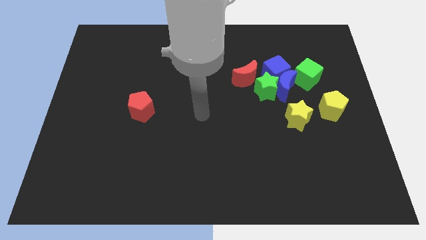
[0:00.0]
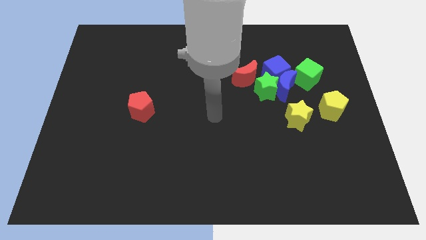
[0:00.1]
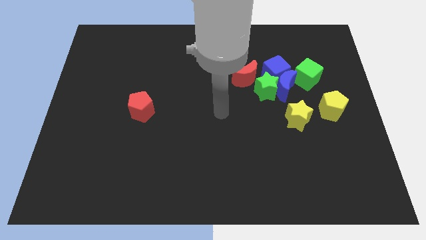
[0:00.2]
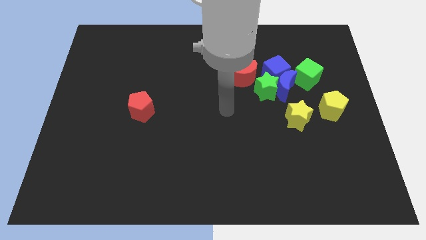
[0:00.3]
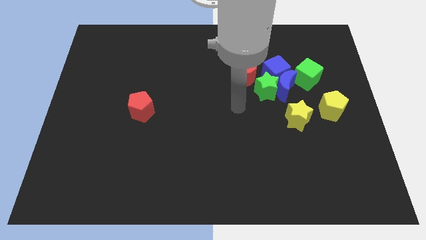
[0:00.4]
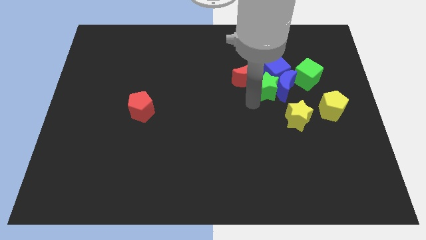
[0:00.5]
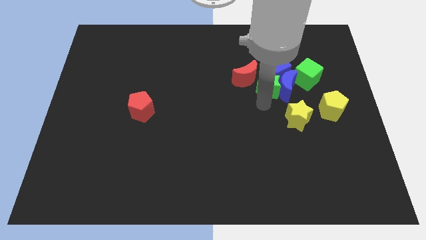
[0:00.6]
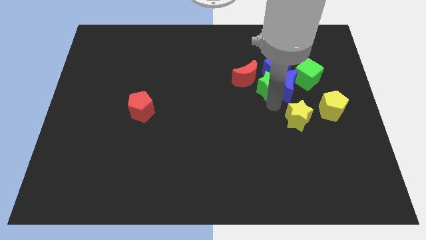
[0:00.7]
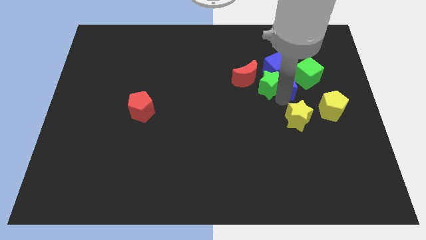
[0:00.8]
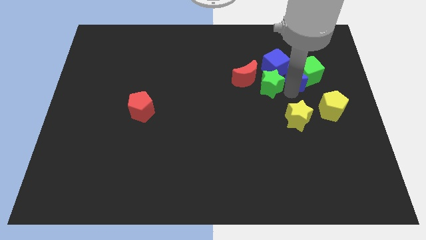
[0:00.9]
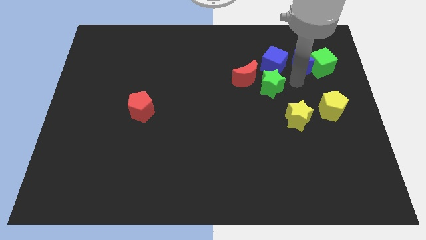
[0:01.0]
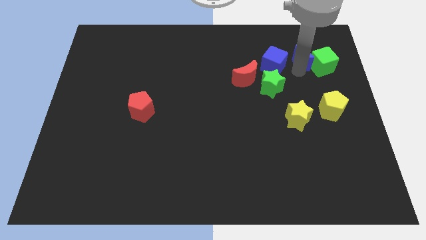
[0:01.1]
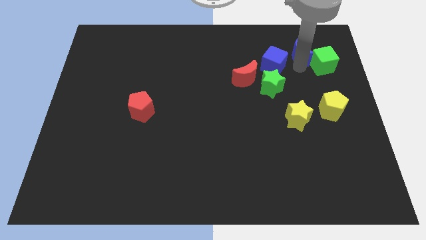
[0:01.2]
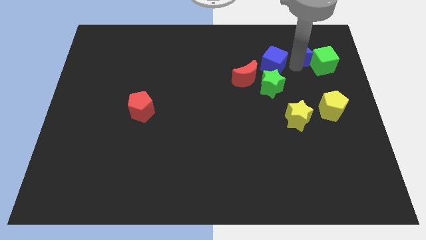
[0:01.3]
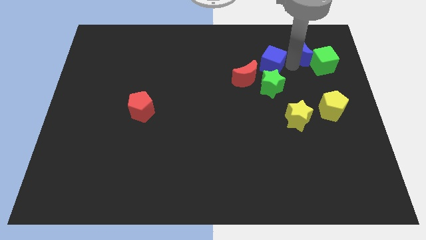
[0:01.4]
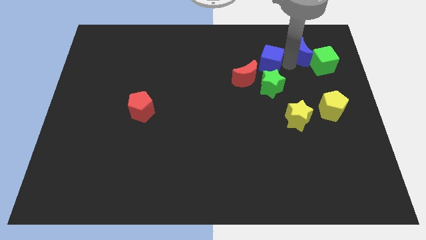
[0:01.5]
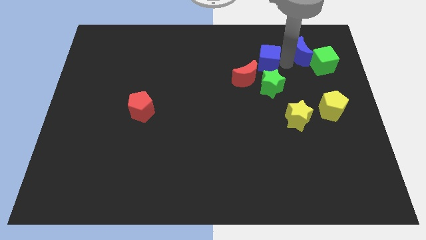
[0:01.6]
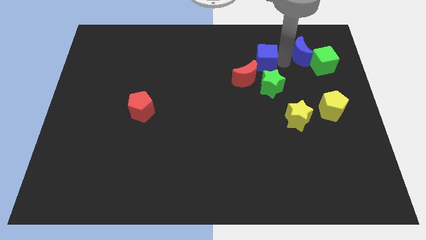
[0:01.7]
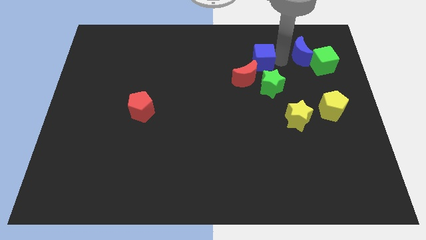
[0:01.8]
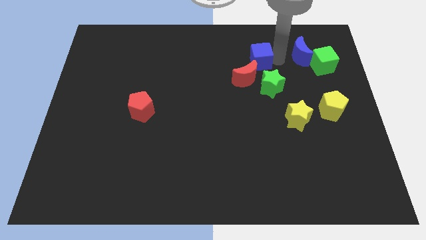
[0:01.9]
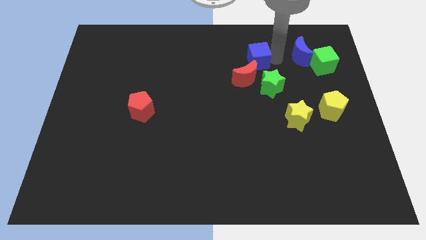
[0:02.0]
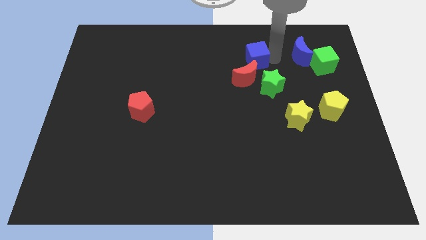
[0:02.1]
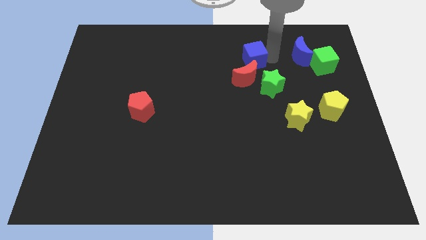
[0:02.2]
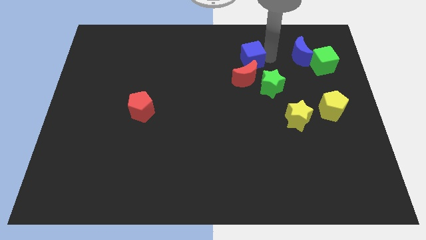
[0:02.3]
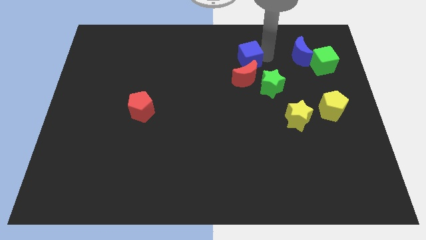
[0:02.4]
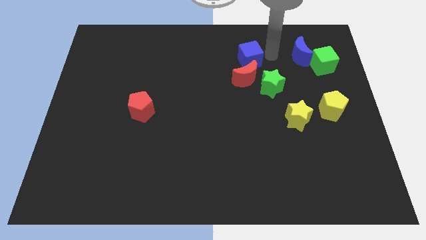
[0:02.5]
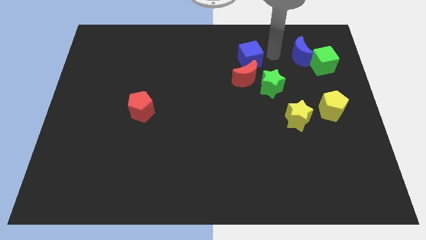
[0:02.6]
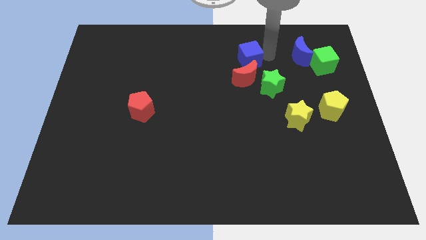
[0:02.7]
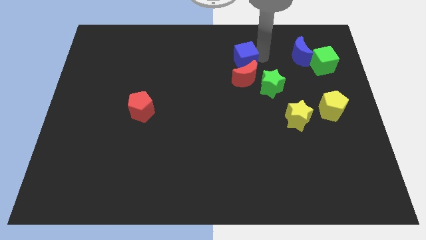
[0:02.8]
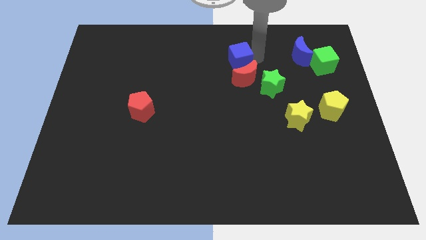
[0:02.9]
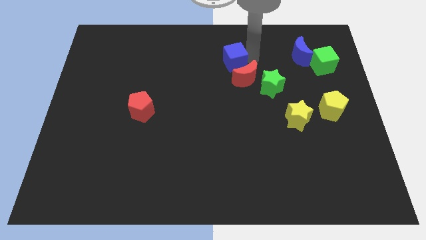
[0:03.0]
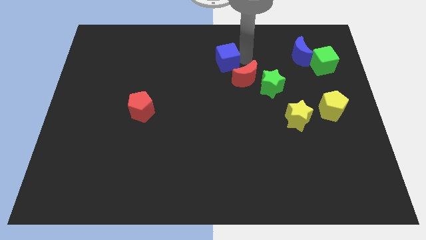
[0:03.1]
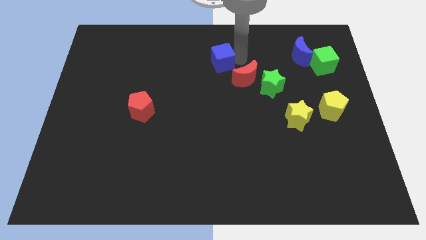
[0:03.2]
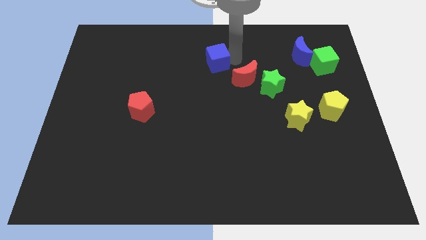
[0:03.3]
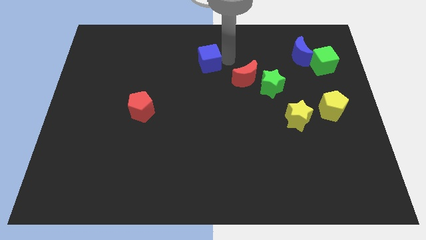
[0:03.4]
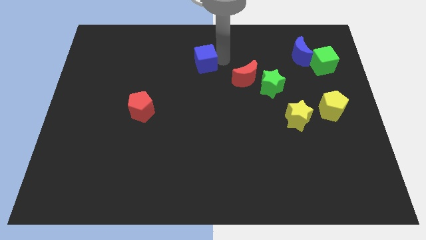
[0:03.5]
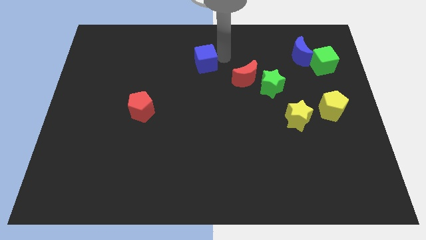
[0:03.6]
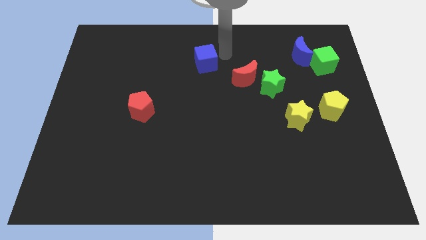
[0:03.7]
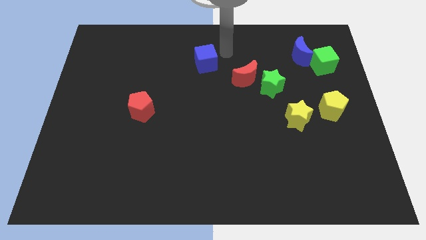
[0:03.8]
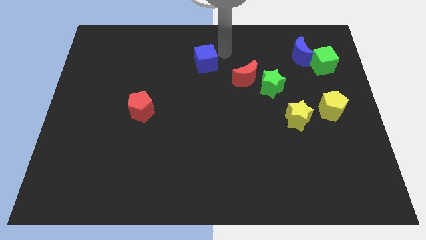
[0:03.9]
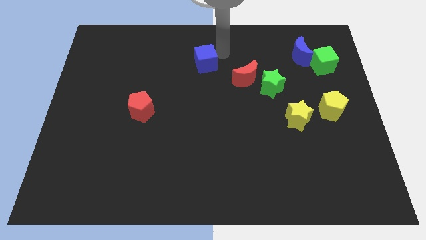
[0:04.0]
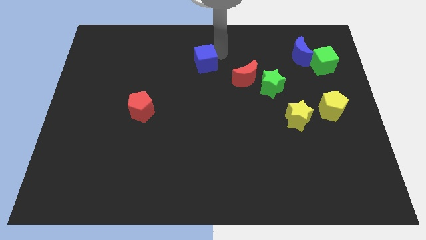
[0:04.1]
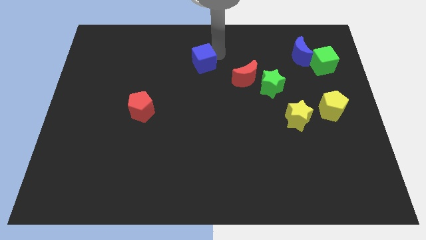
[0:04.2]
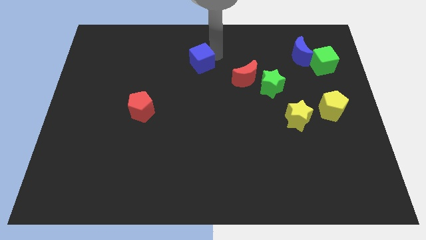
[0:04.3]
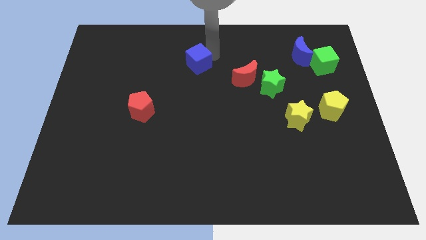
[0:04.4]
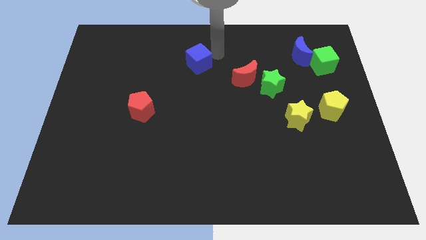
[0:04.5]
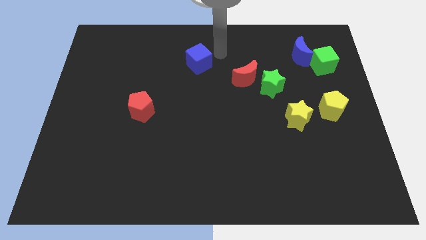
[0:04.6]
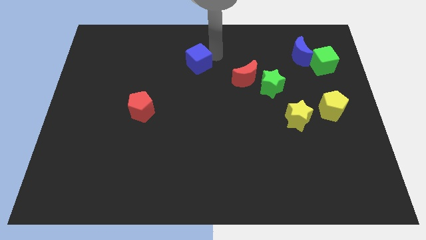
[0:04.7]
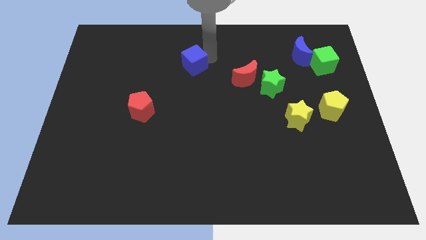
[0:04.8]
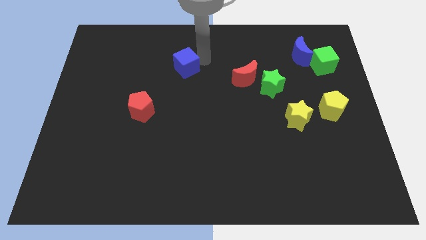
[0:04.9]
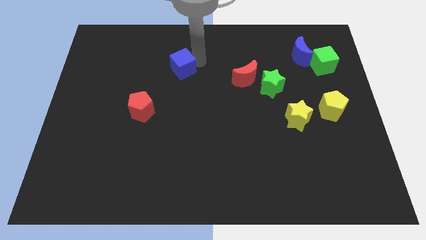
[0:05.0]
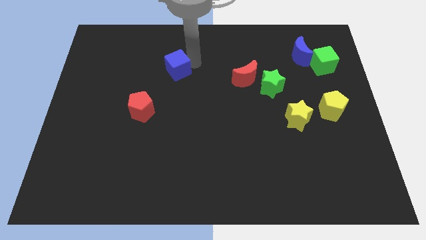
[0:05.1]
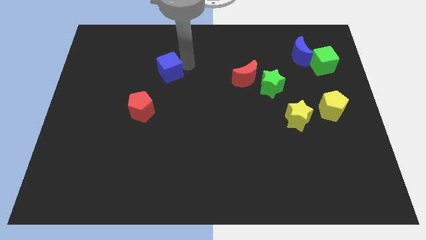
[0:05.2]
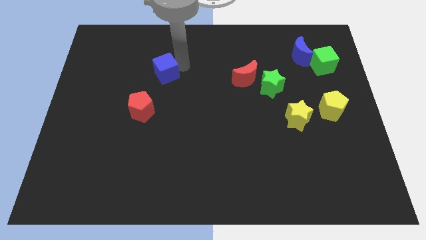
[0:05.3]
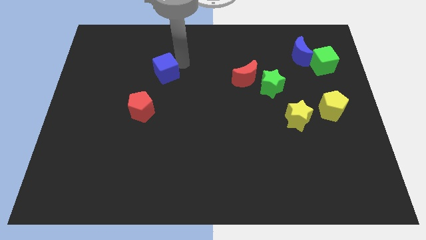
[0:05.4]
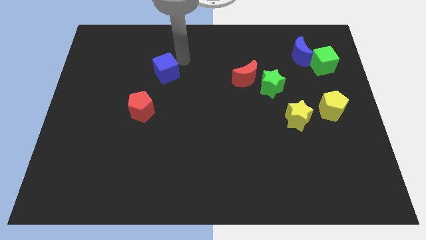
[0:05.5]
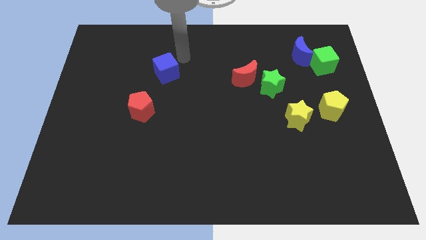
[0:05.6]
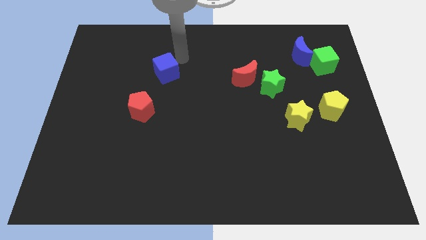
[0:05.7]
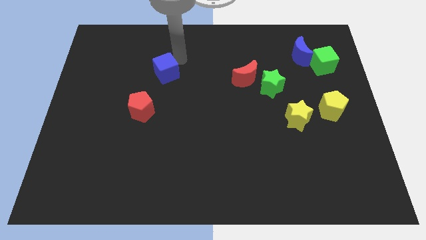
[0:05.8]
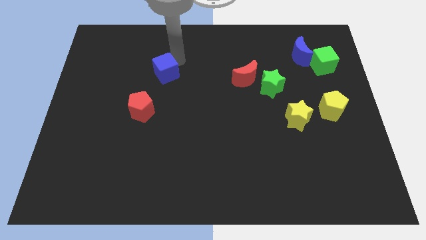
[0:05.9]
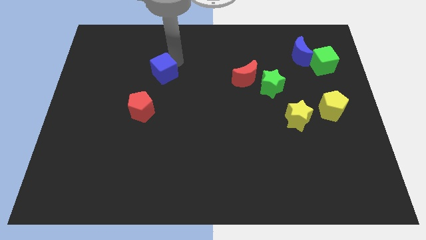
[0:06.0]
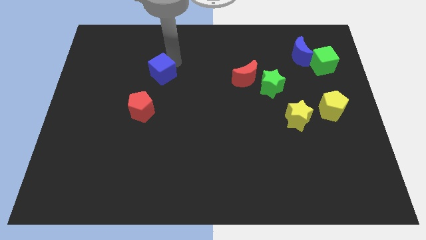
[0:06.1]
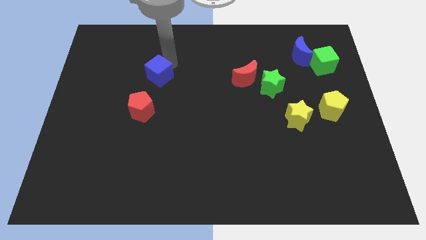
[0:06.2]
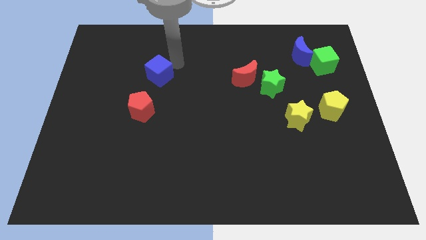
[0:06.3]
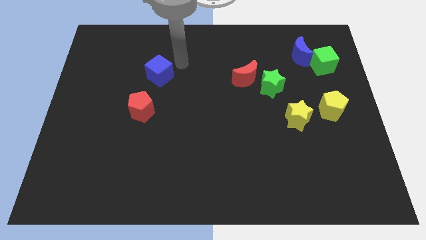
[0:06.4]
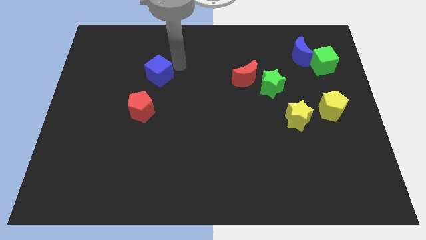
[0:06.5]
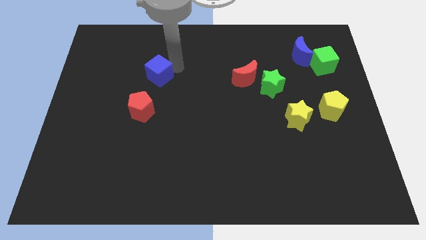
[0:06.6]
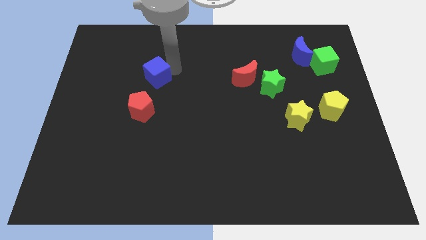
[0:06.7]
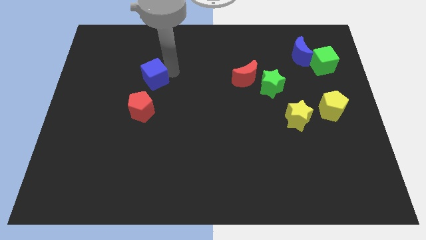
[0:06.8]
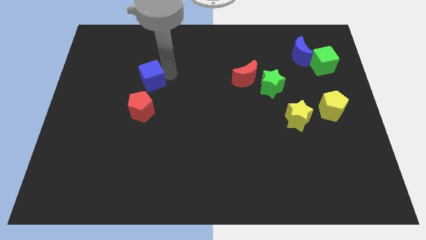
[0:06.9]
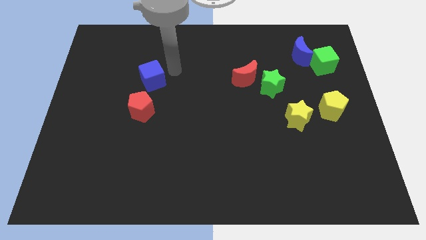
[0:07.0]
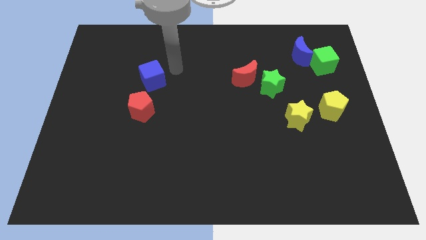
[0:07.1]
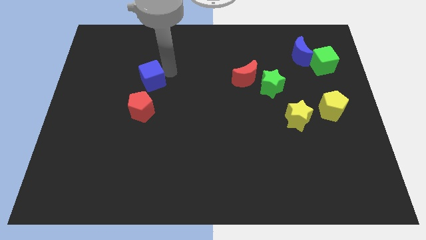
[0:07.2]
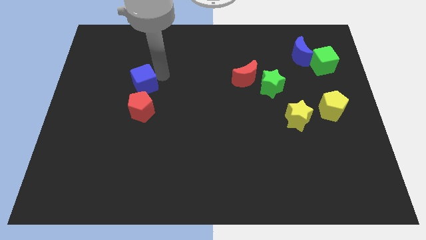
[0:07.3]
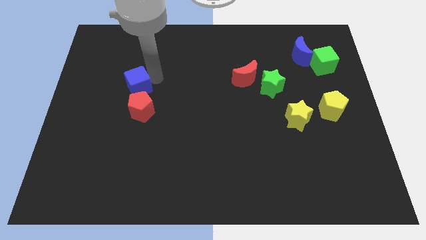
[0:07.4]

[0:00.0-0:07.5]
put the blue cube to the top left of the red pentagon
